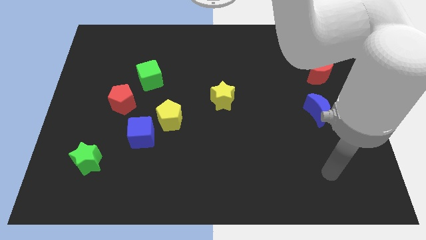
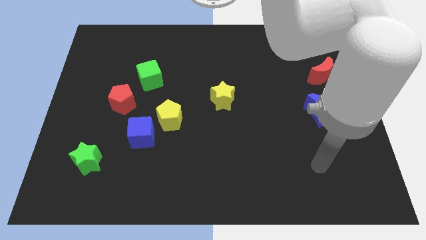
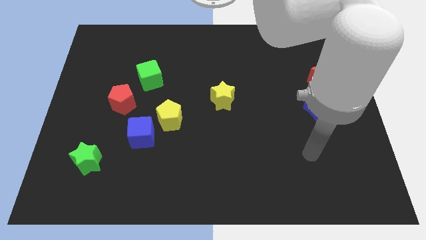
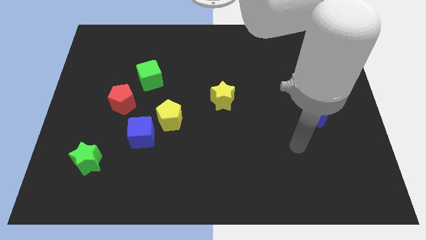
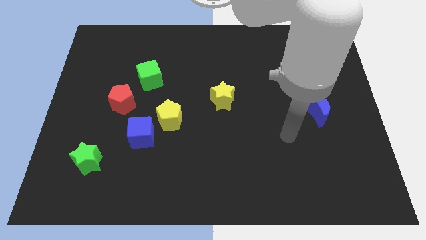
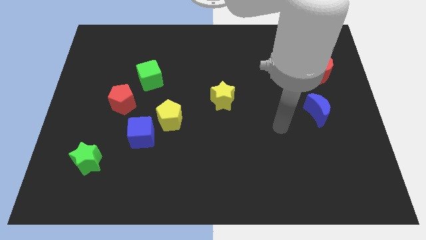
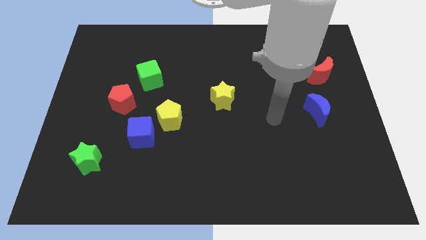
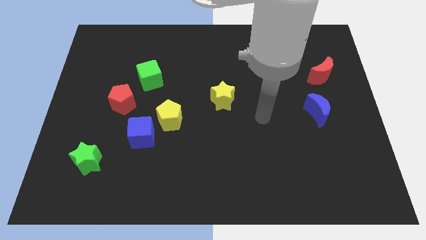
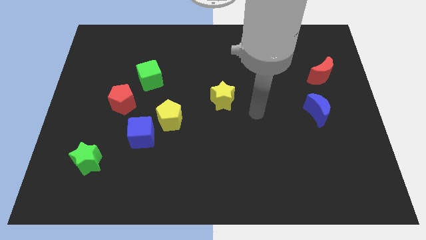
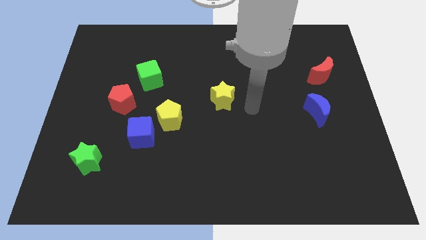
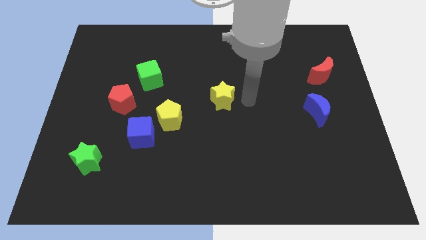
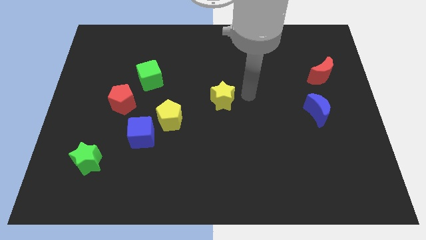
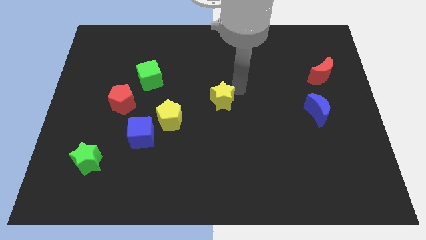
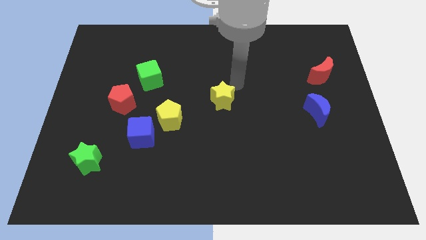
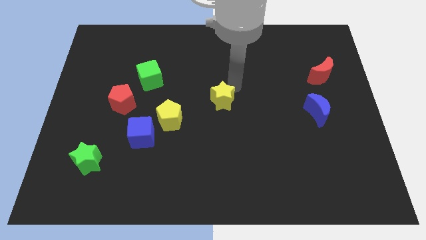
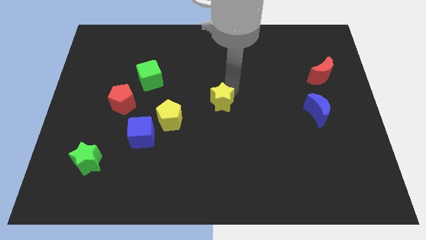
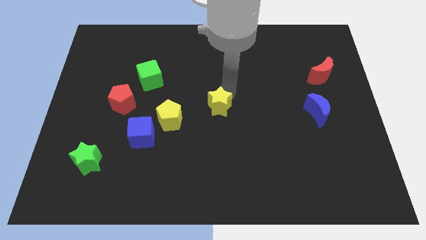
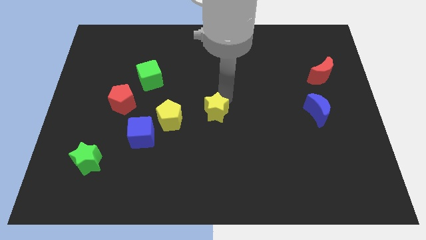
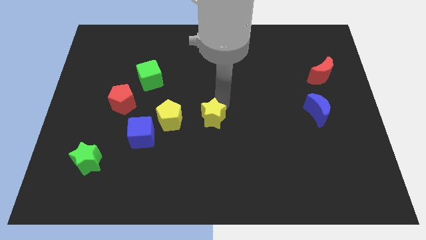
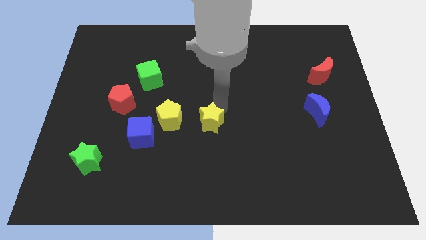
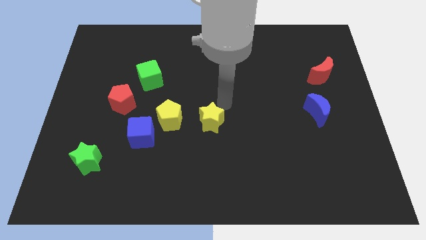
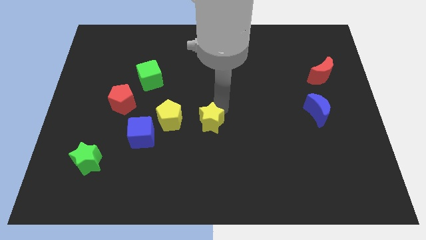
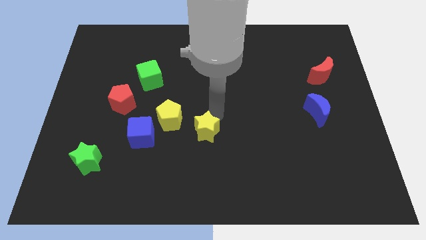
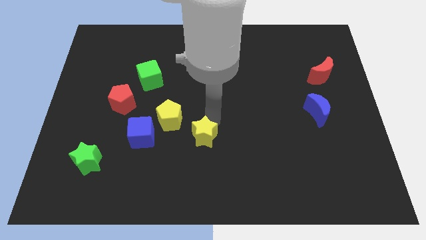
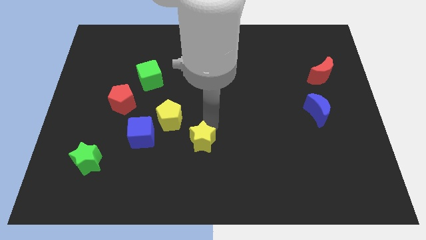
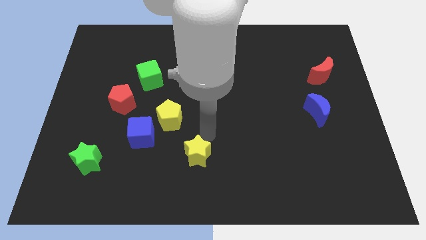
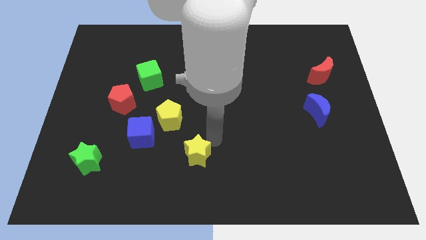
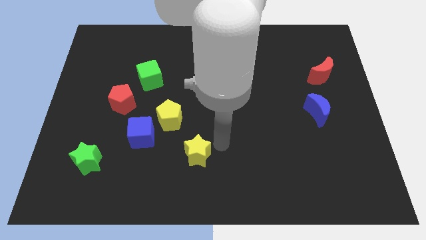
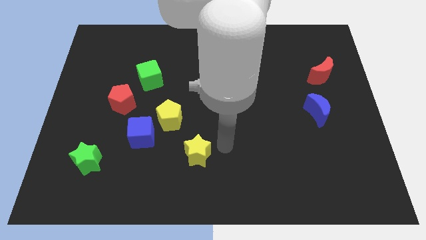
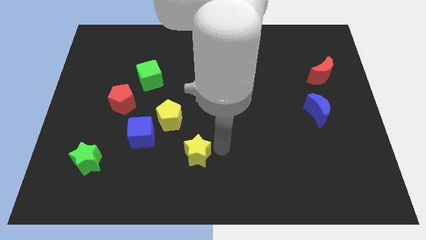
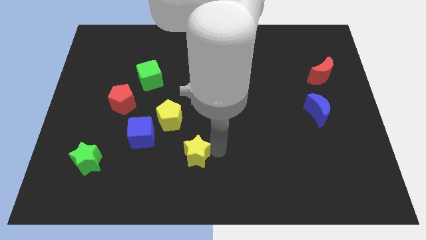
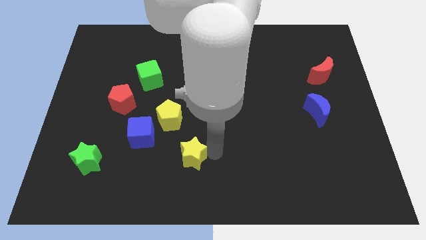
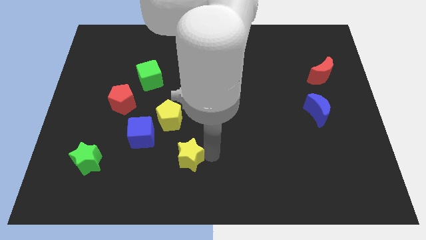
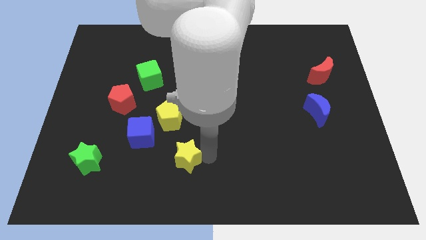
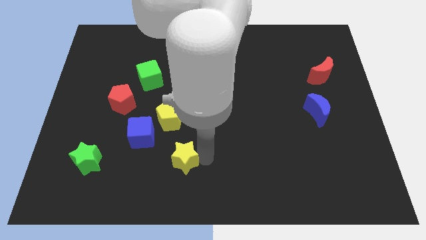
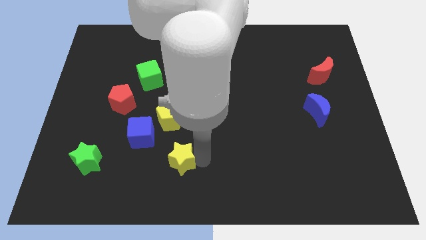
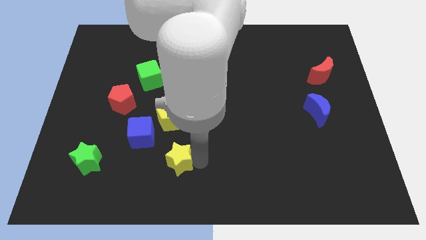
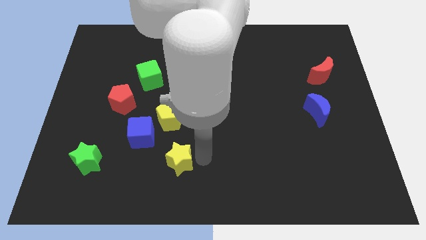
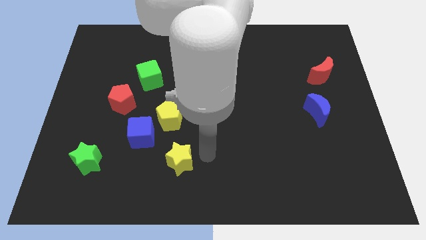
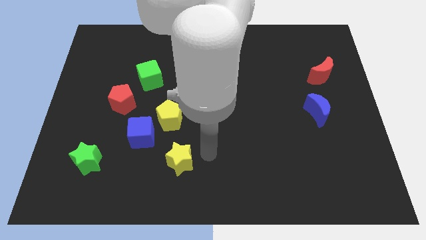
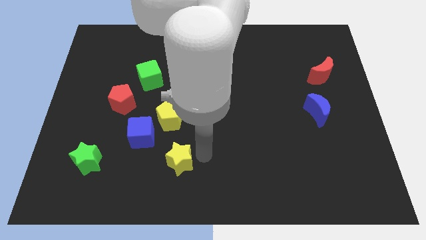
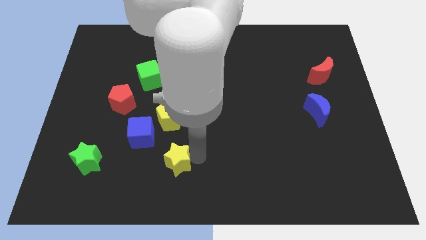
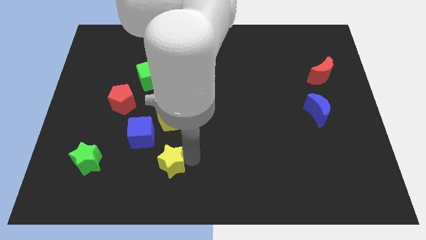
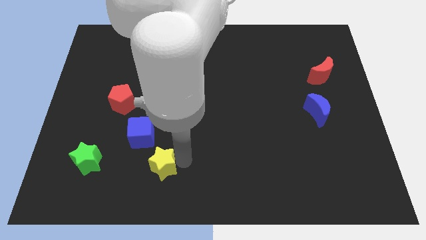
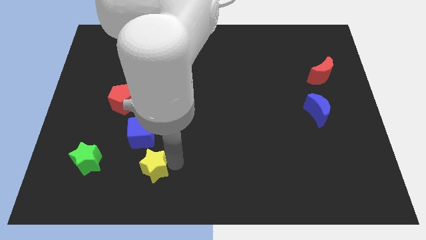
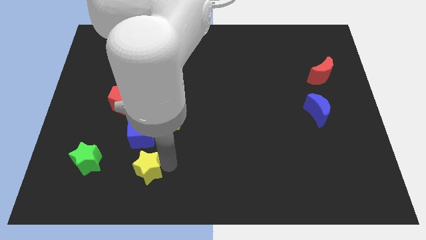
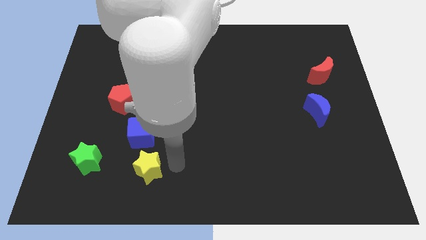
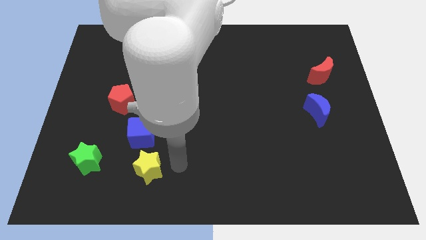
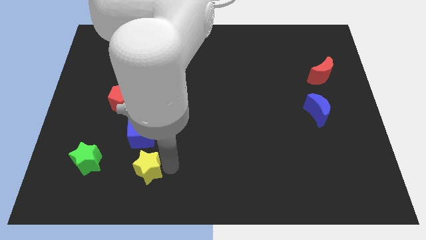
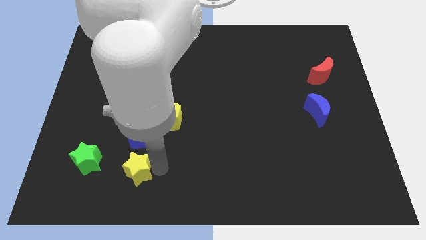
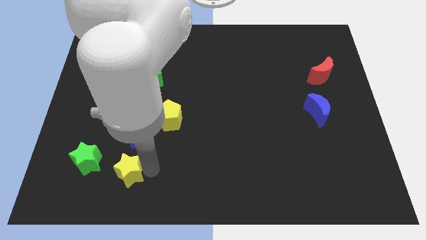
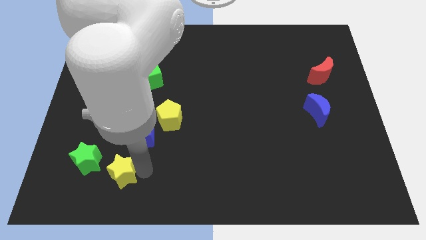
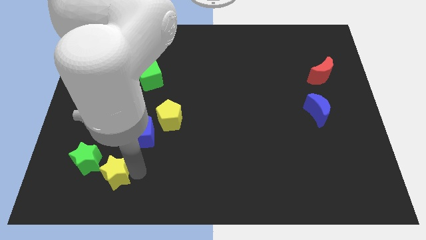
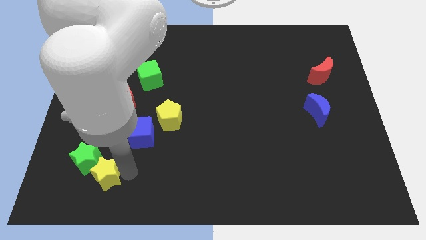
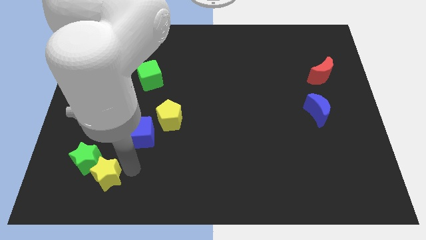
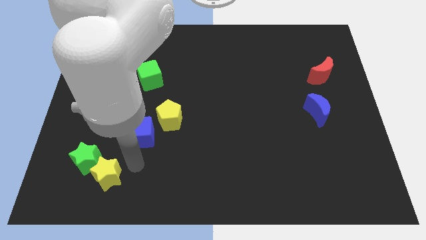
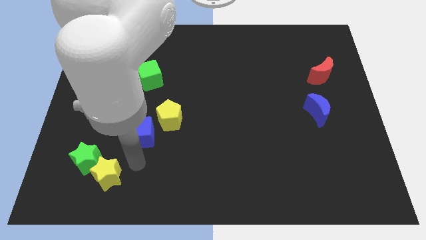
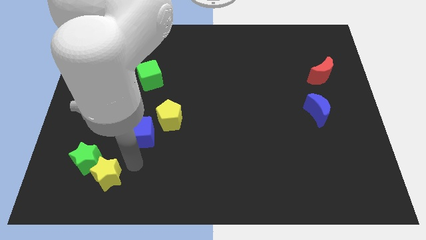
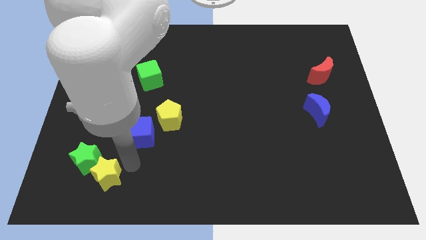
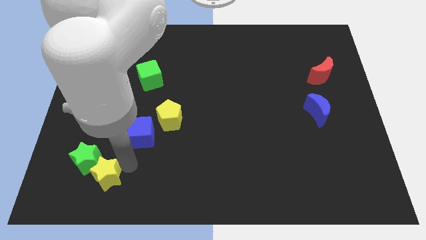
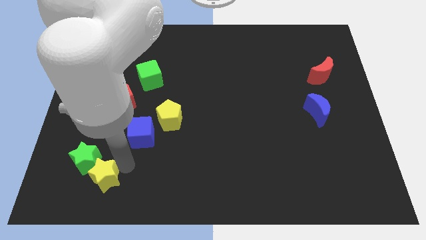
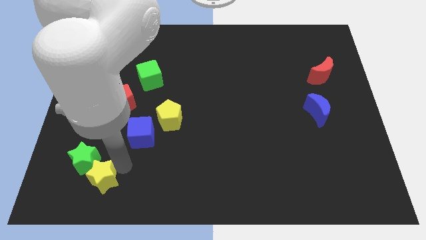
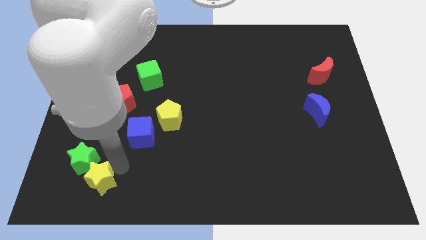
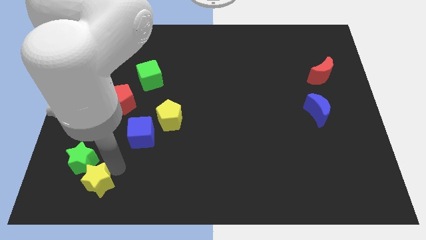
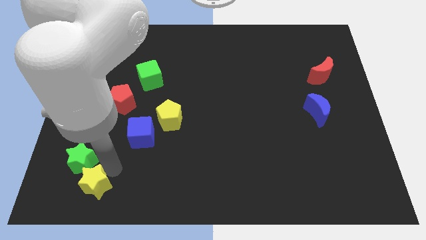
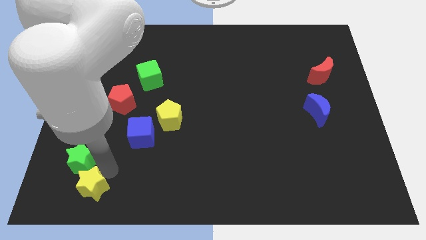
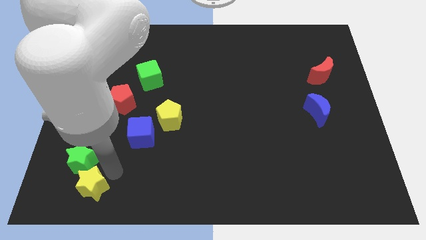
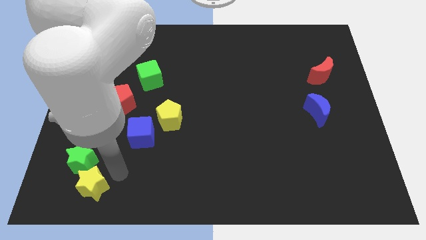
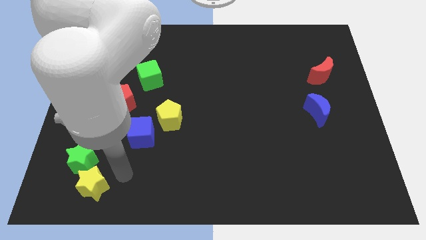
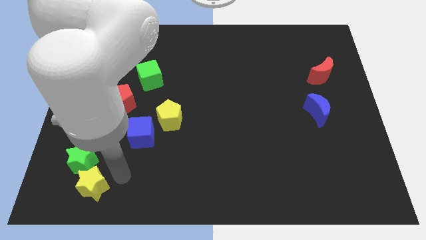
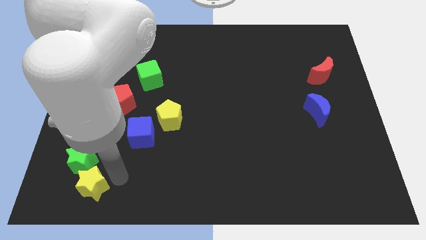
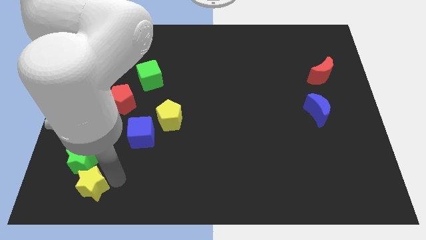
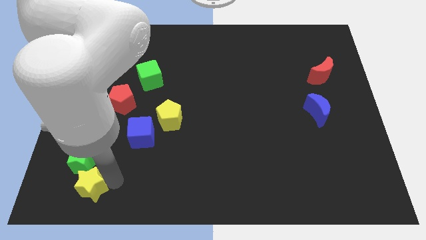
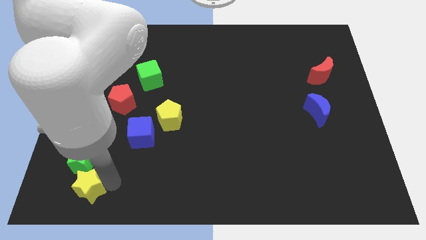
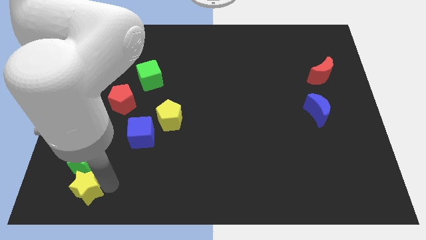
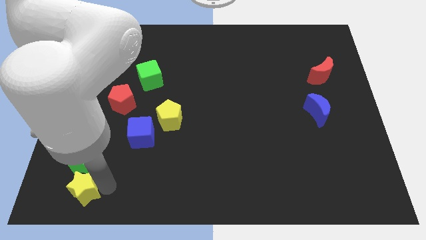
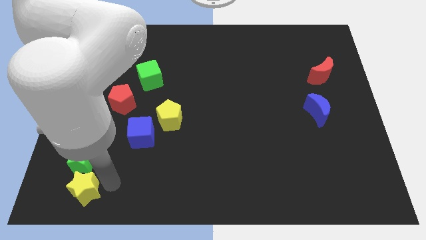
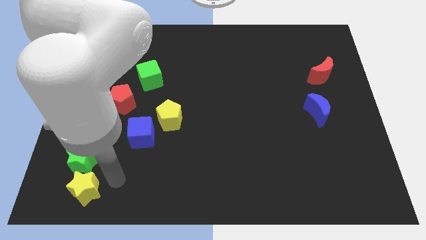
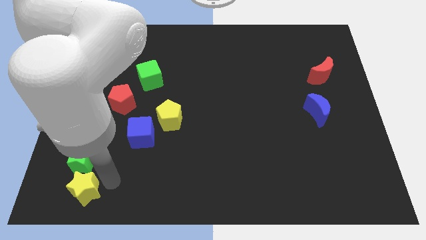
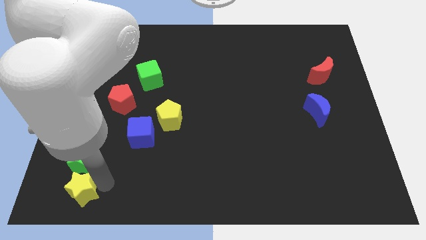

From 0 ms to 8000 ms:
put the yellow star to the bottom left
